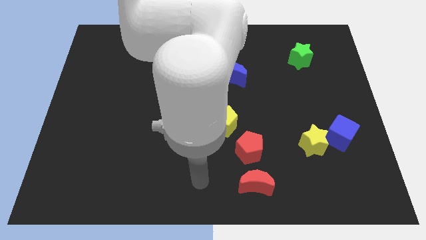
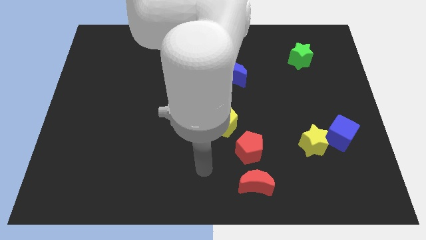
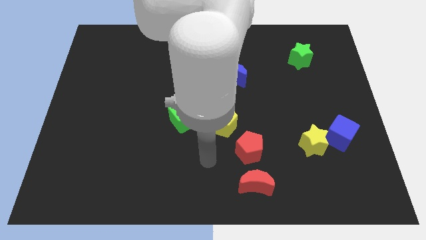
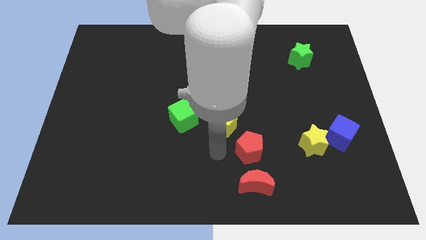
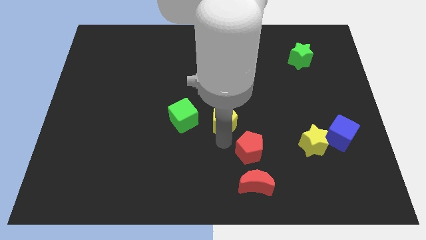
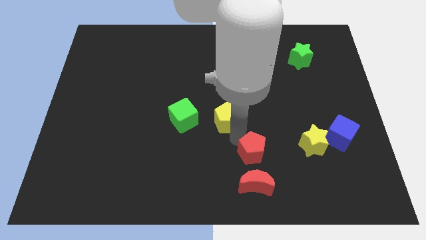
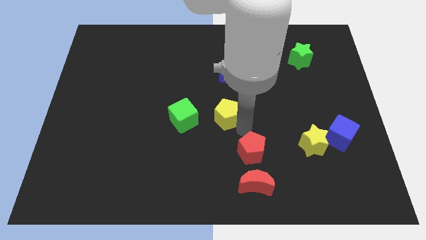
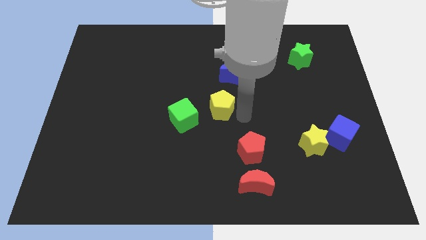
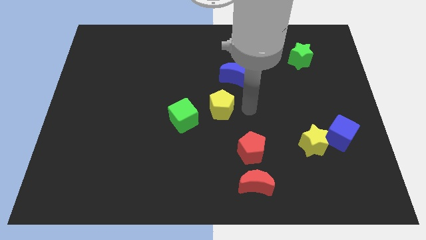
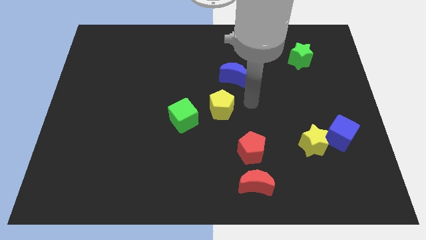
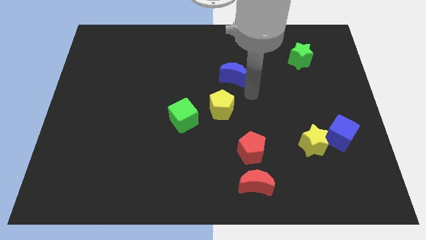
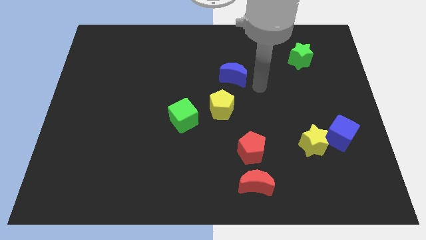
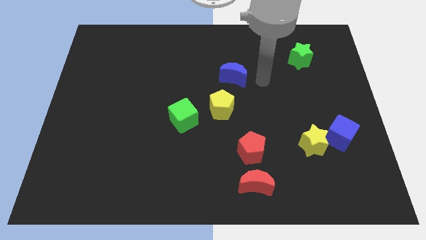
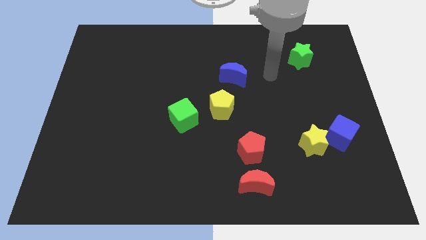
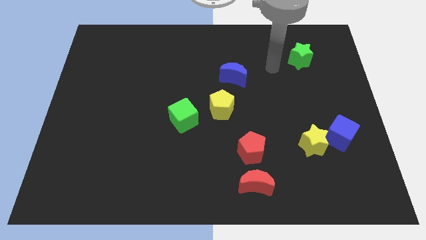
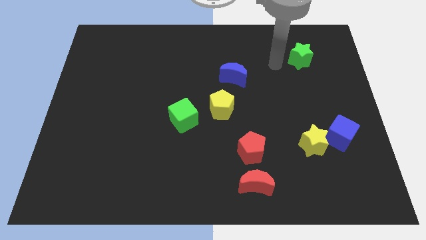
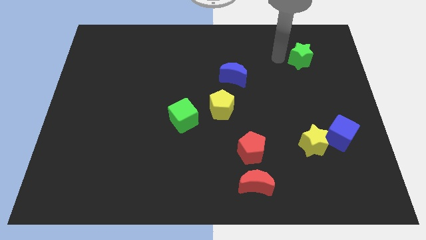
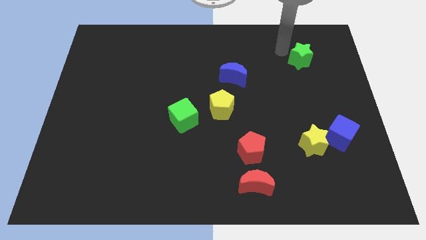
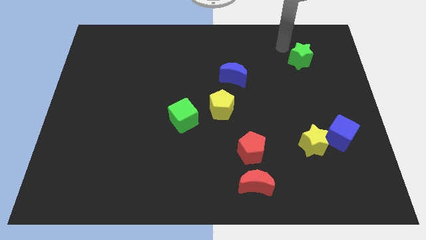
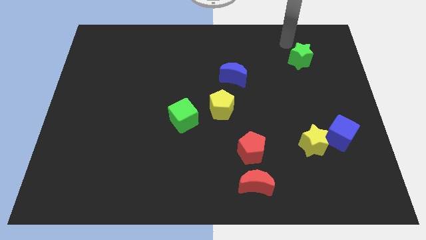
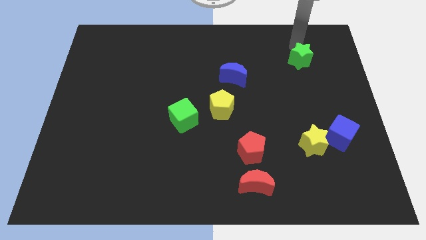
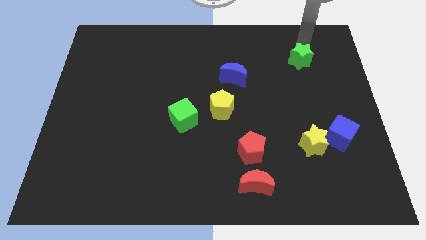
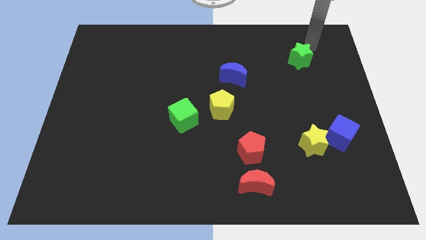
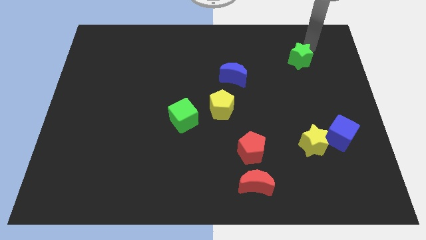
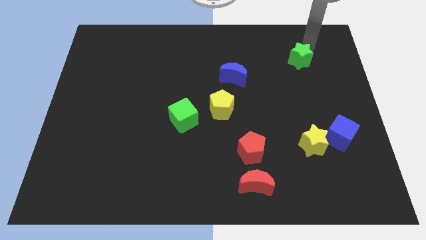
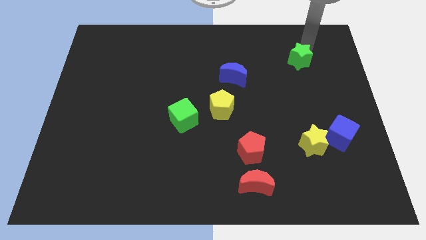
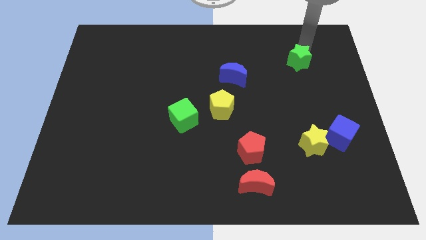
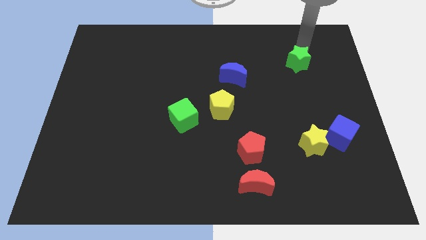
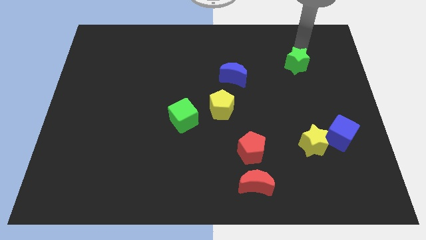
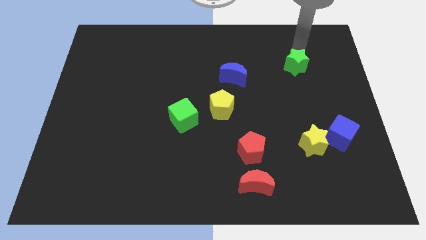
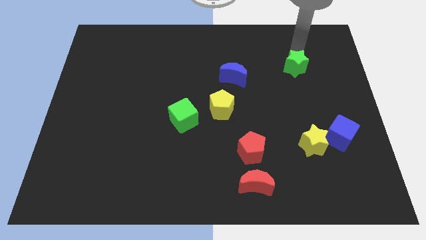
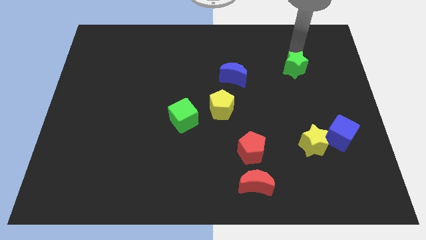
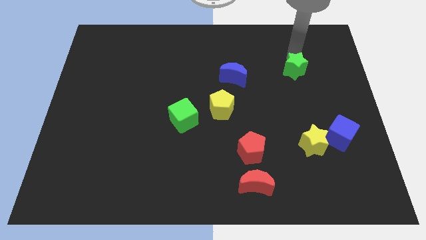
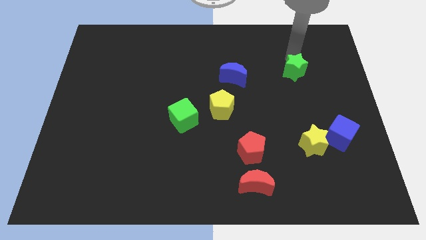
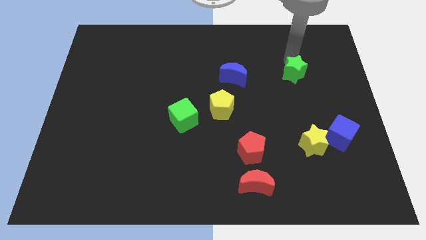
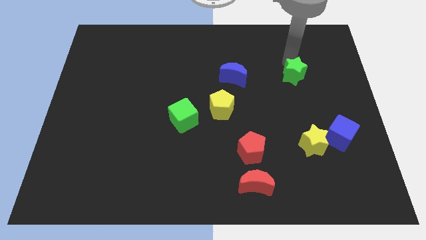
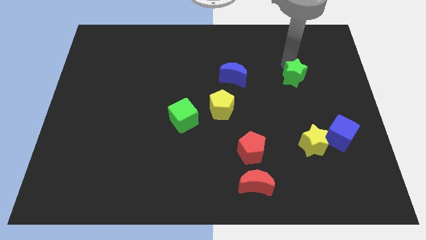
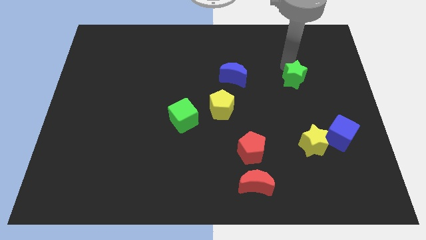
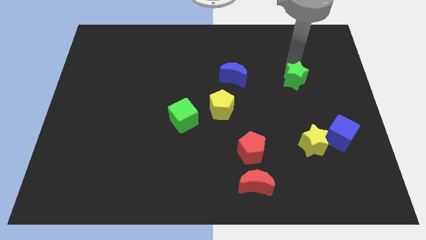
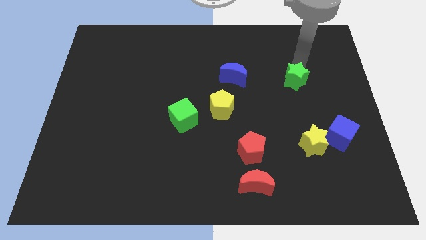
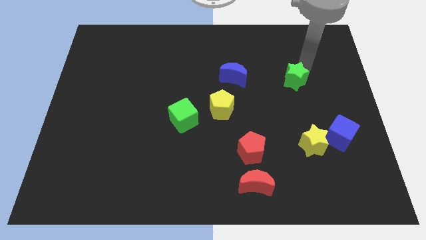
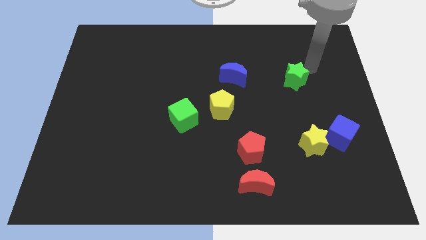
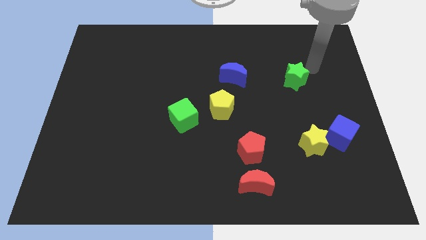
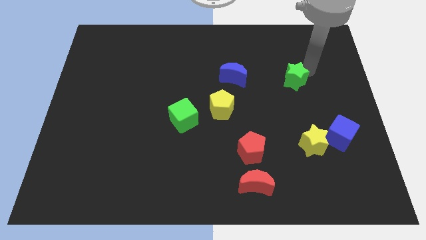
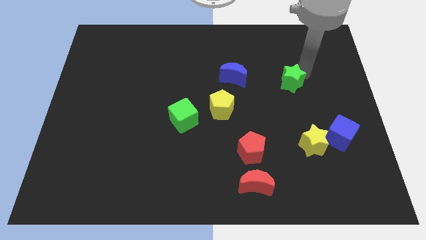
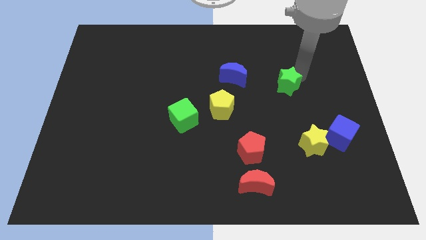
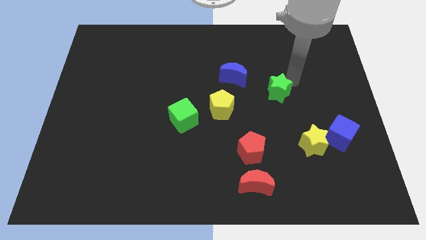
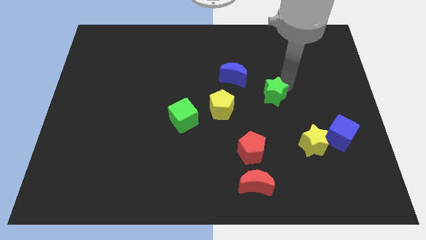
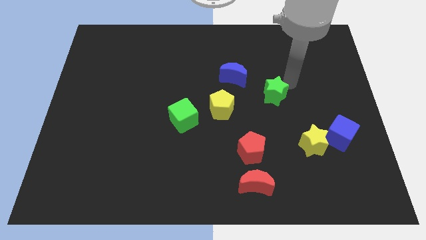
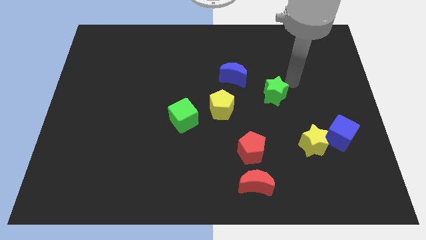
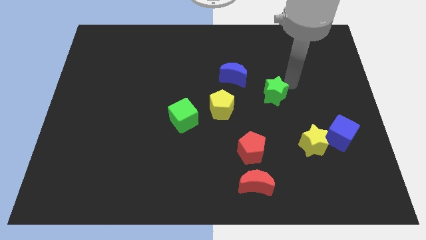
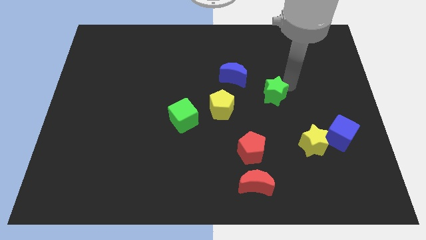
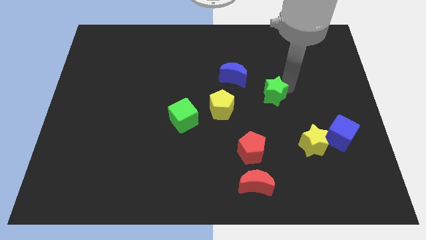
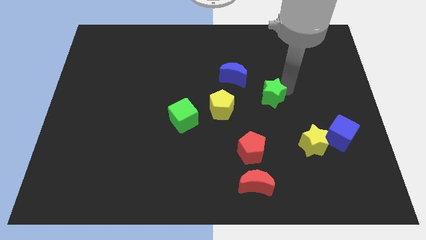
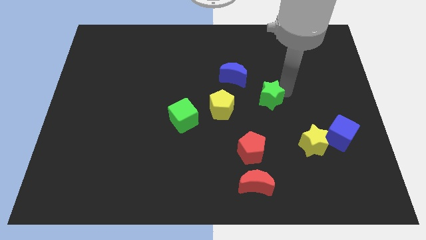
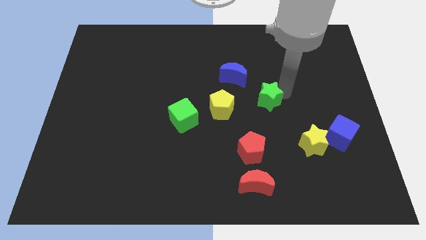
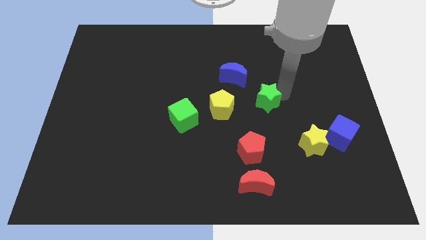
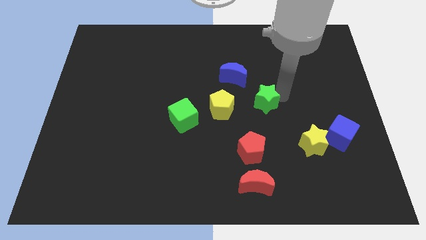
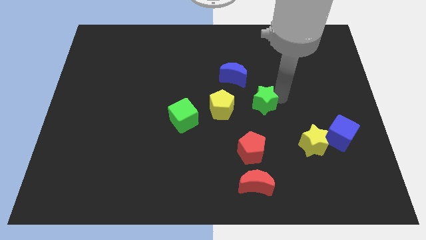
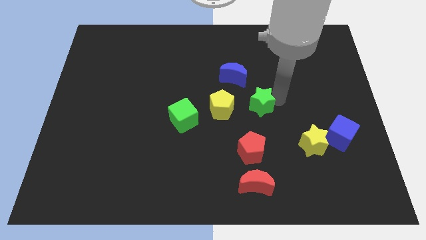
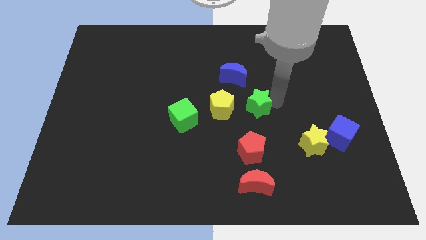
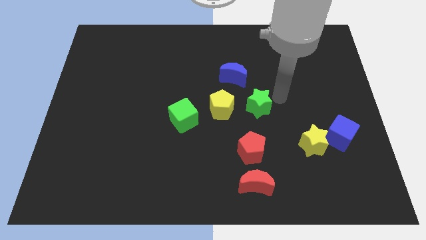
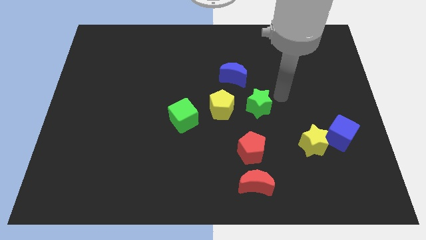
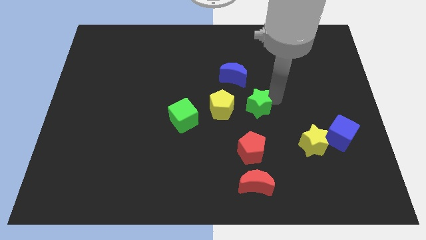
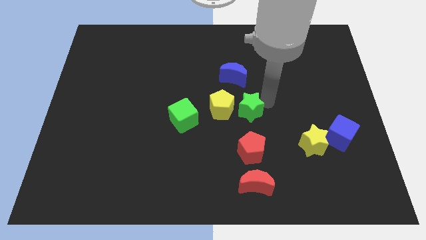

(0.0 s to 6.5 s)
move the green star right of the green cube

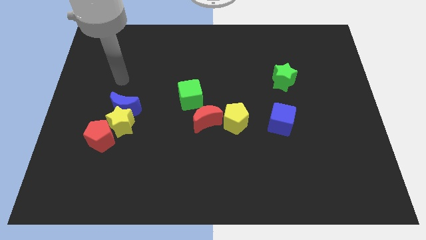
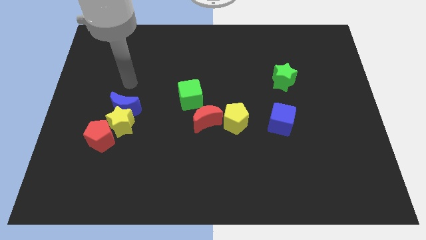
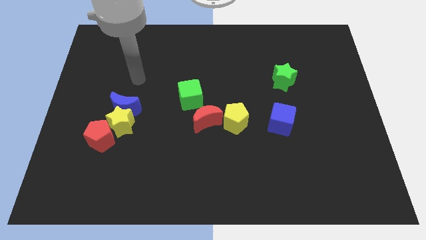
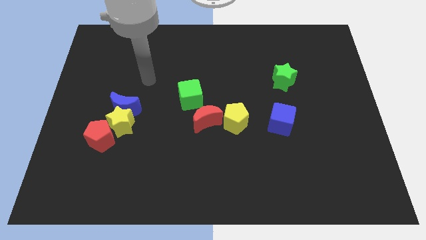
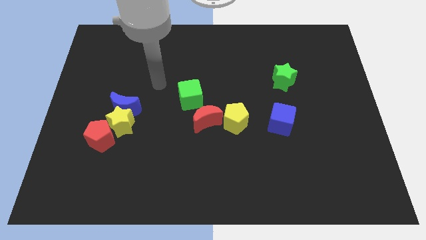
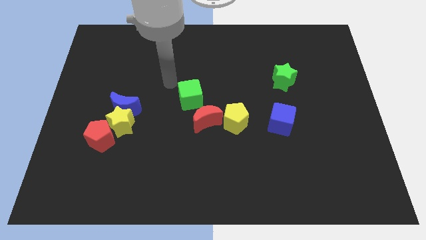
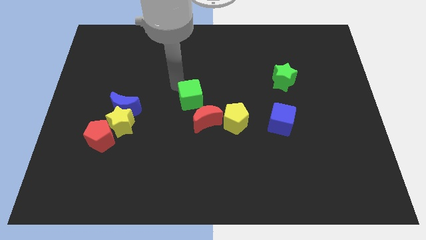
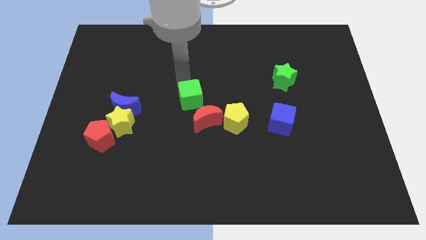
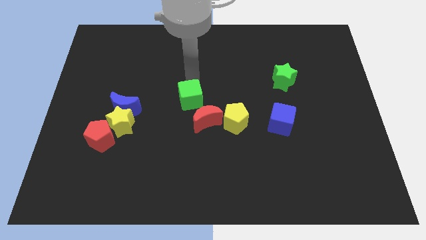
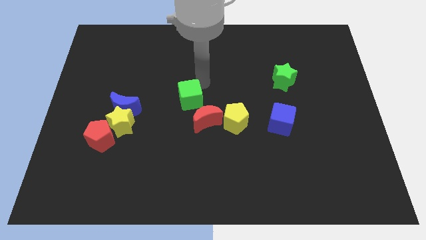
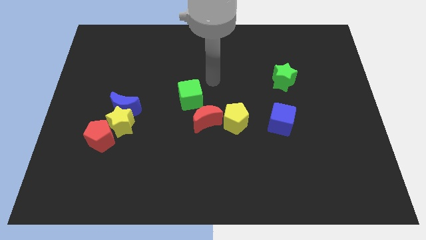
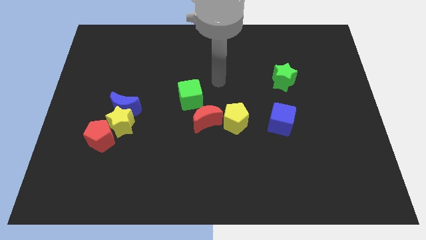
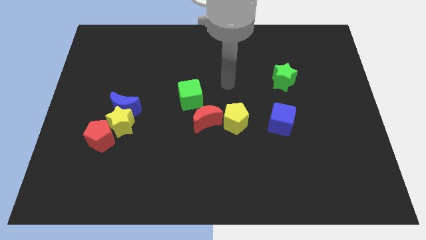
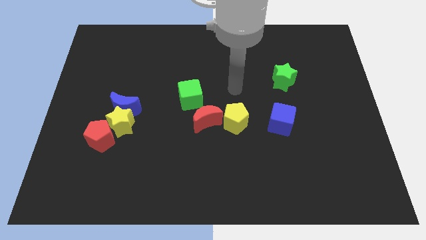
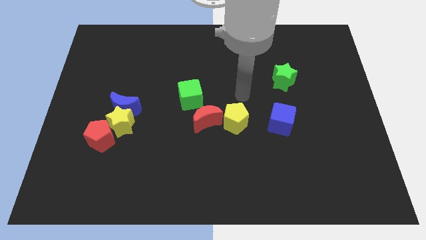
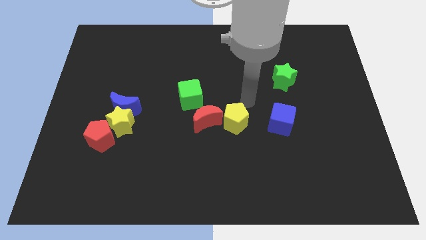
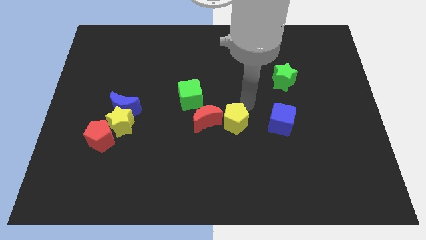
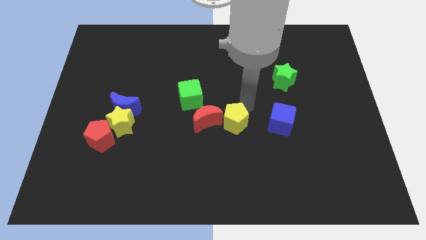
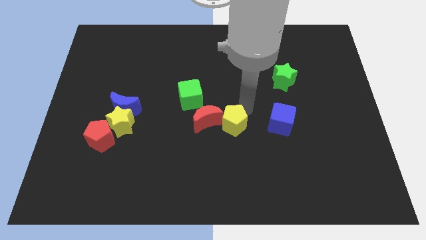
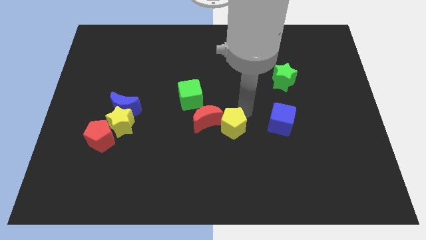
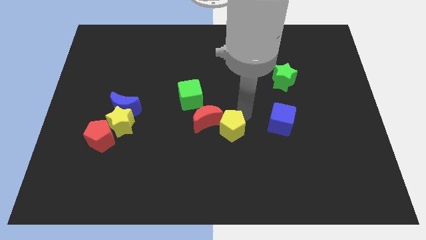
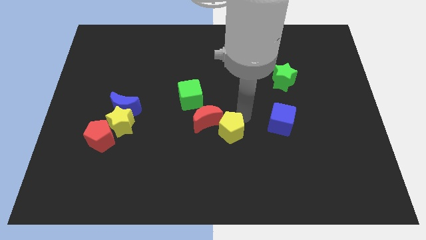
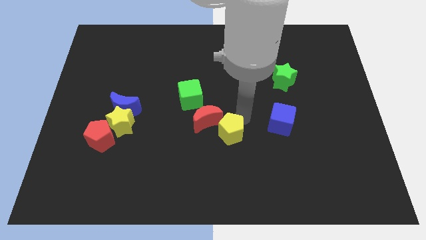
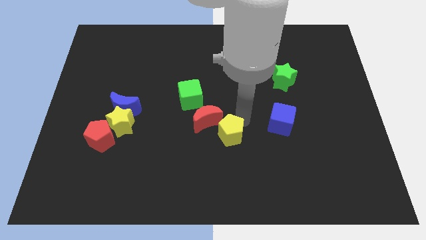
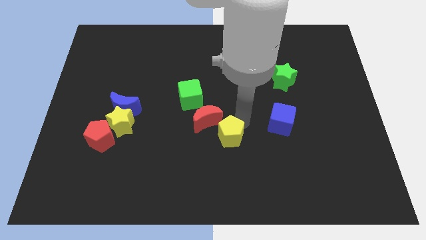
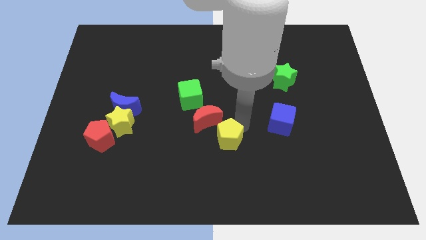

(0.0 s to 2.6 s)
push the yellow pentagon to the bottom side of the red moon
